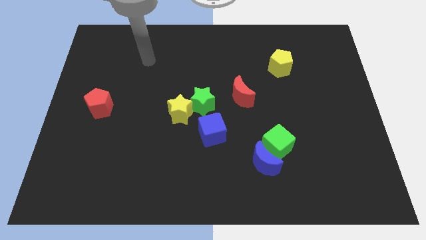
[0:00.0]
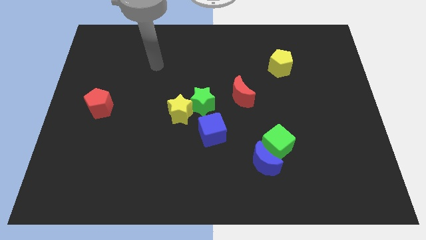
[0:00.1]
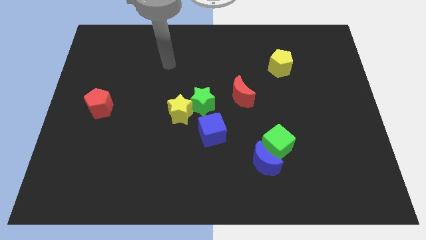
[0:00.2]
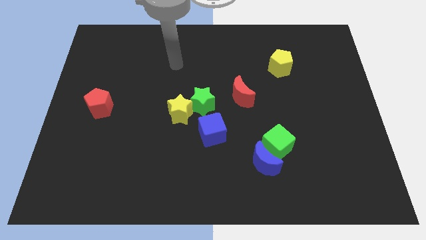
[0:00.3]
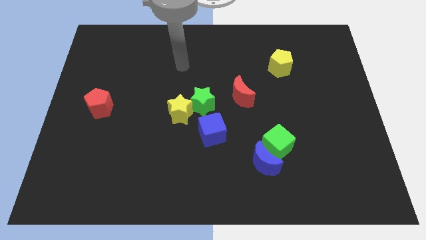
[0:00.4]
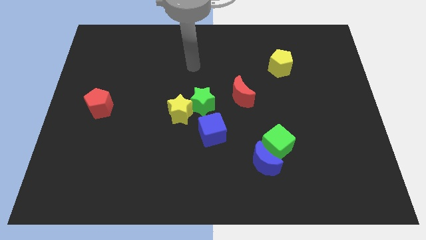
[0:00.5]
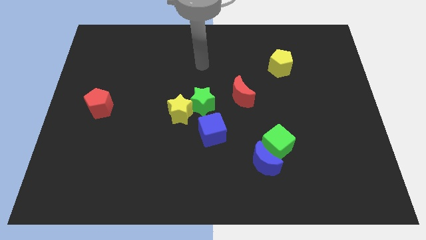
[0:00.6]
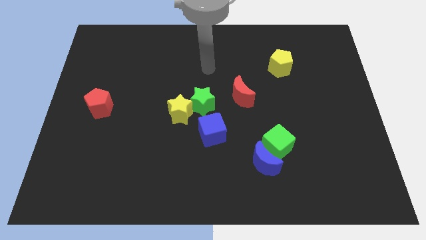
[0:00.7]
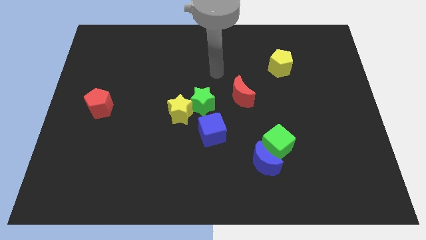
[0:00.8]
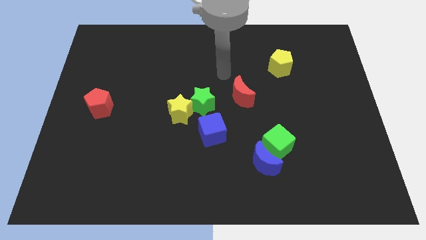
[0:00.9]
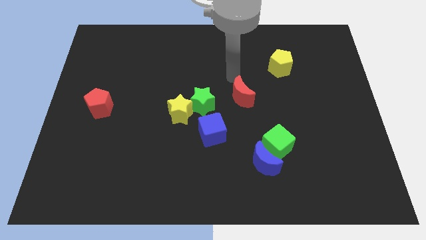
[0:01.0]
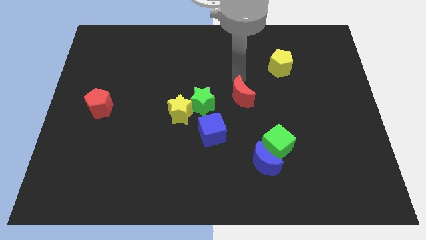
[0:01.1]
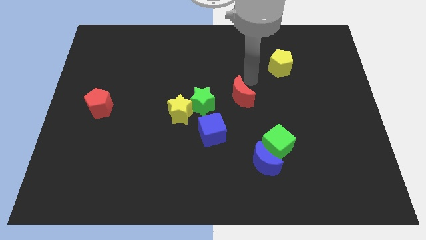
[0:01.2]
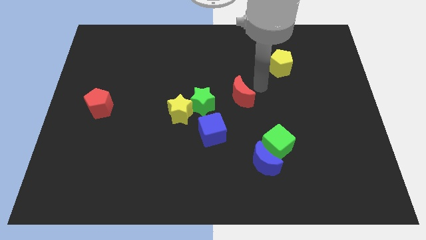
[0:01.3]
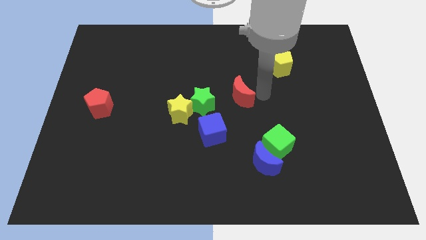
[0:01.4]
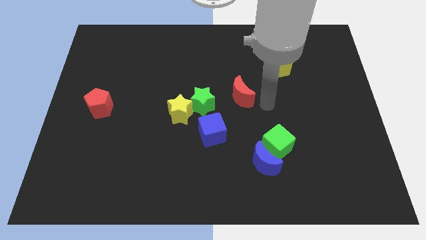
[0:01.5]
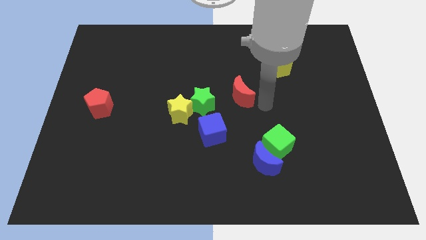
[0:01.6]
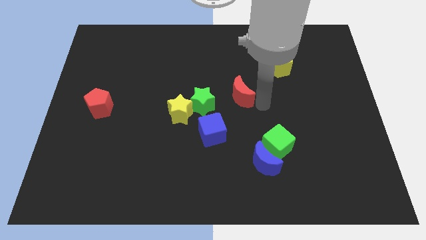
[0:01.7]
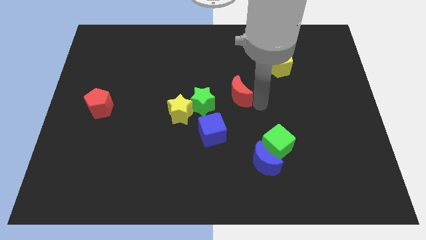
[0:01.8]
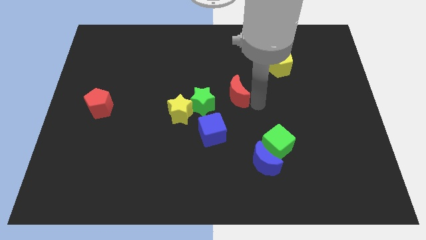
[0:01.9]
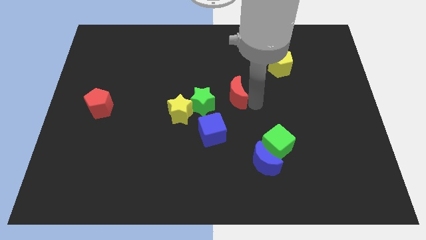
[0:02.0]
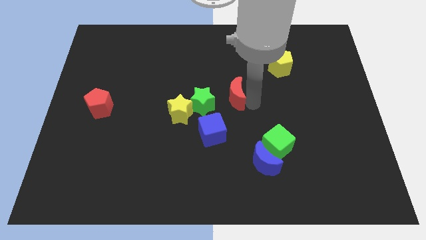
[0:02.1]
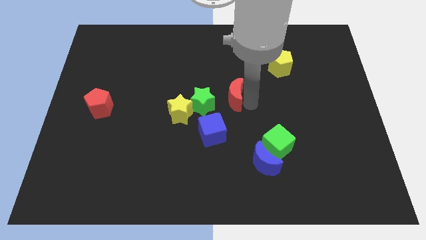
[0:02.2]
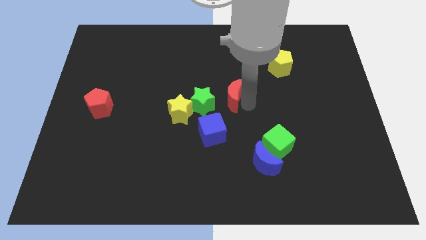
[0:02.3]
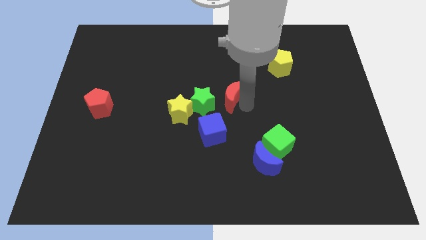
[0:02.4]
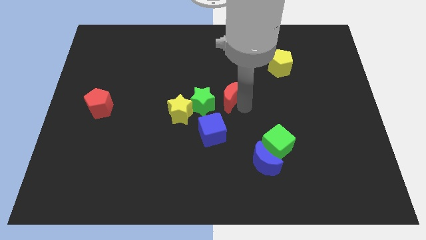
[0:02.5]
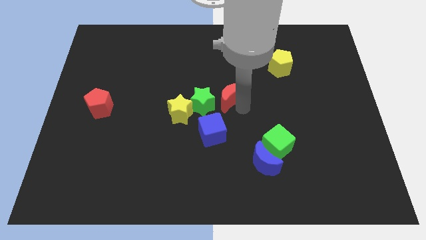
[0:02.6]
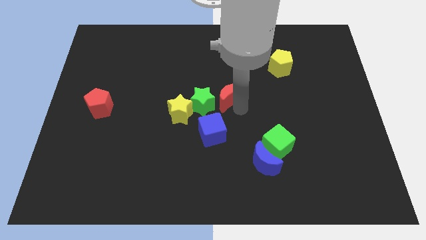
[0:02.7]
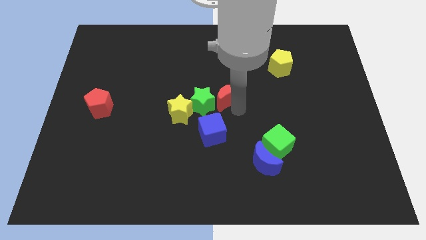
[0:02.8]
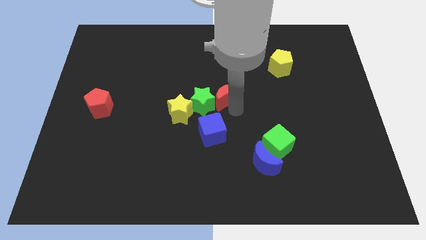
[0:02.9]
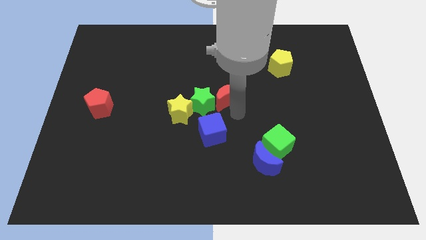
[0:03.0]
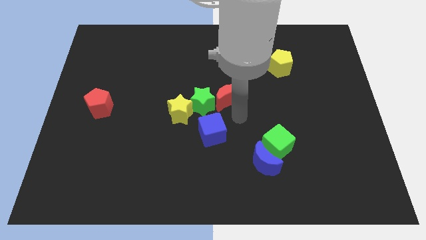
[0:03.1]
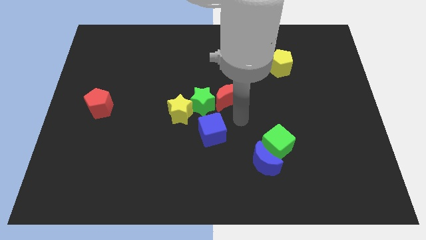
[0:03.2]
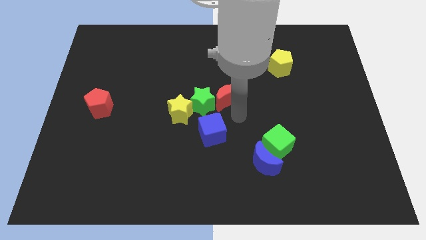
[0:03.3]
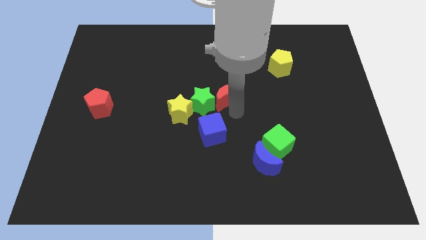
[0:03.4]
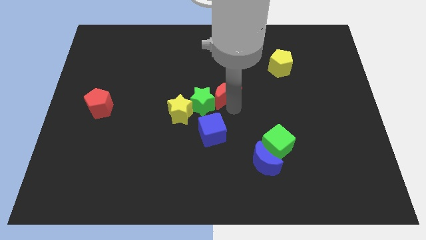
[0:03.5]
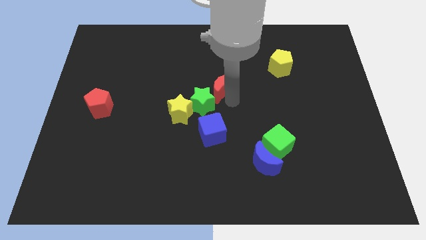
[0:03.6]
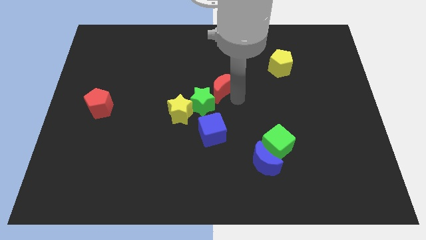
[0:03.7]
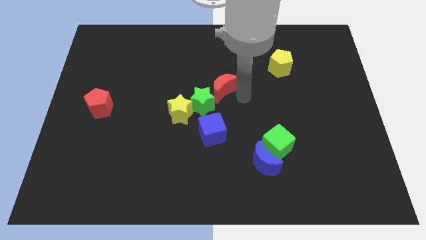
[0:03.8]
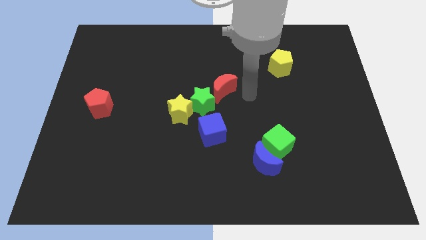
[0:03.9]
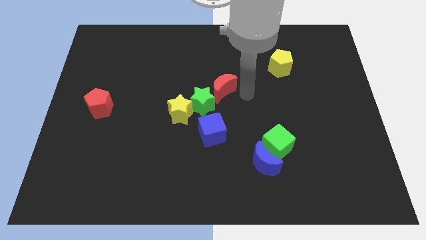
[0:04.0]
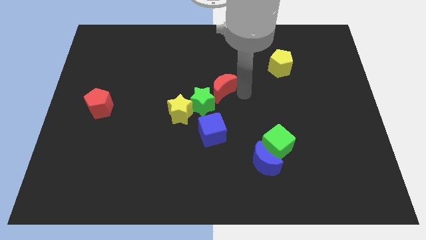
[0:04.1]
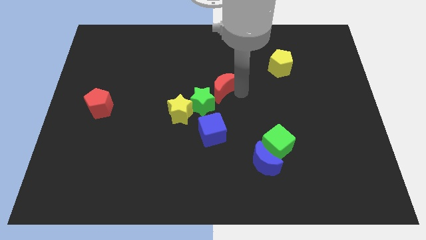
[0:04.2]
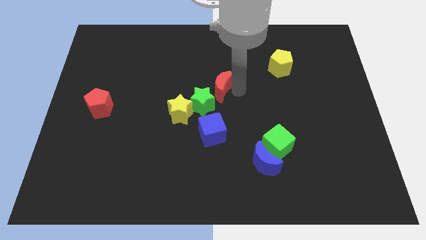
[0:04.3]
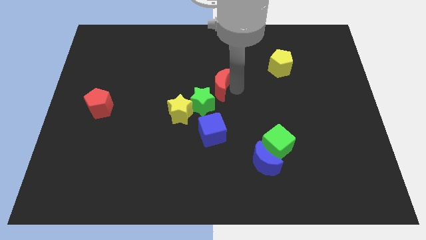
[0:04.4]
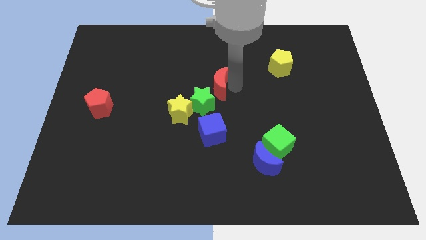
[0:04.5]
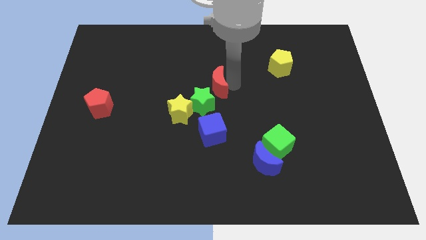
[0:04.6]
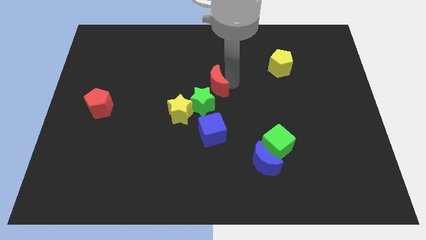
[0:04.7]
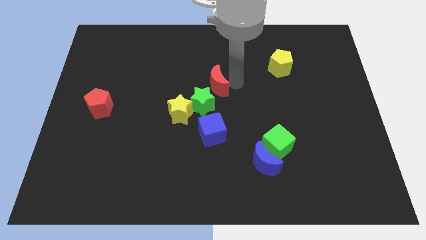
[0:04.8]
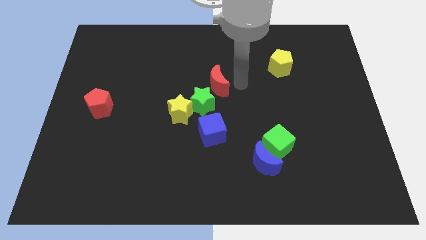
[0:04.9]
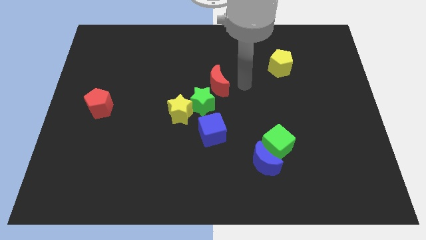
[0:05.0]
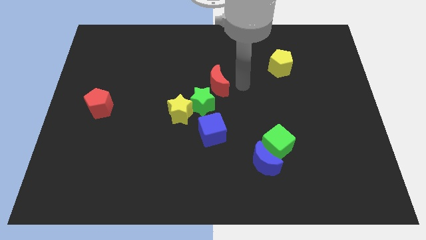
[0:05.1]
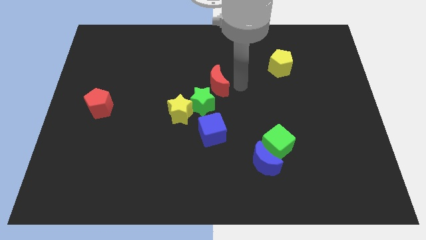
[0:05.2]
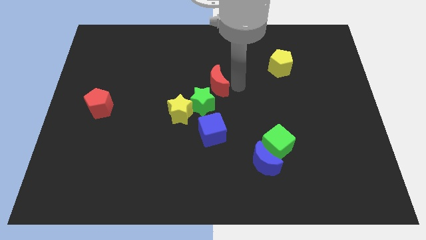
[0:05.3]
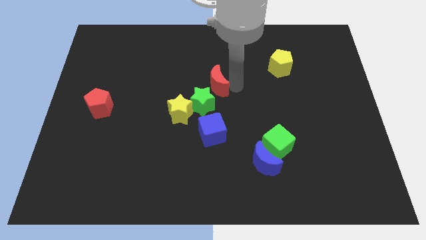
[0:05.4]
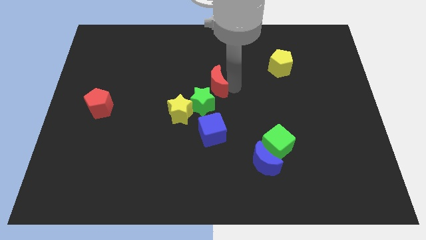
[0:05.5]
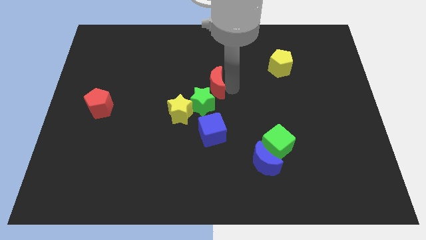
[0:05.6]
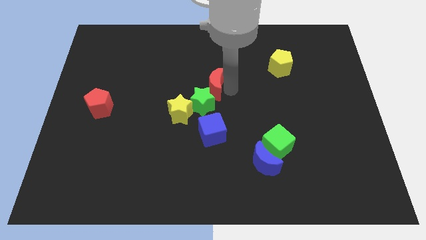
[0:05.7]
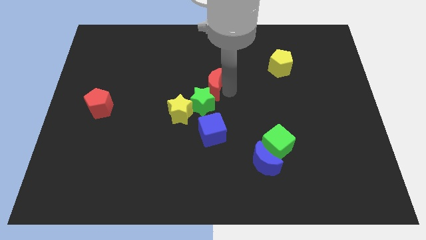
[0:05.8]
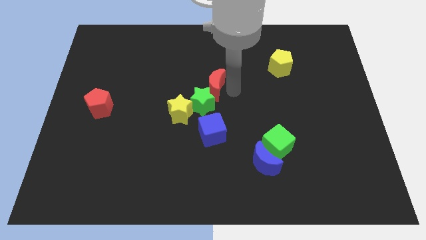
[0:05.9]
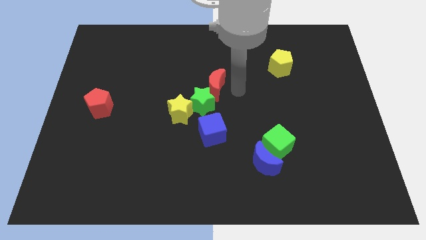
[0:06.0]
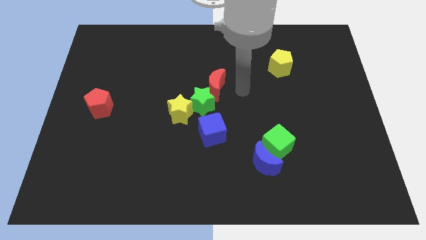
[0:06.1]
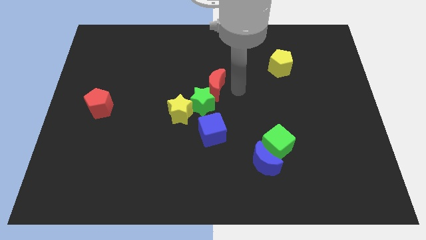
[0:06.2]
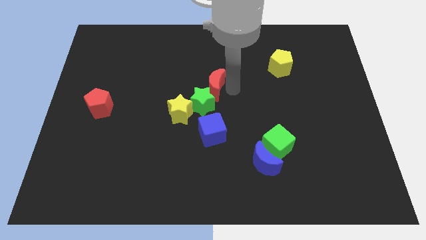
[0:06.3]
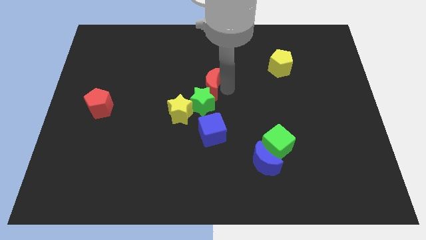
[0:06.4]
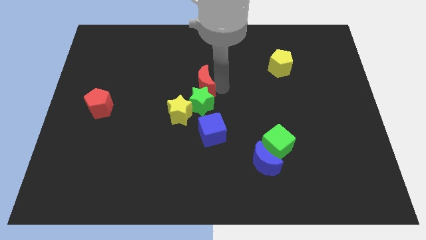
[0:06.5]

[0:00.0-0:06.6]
move the red moon to the left a little

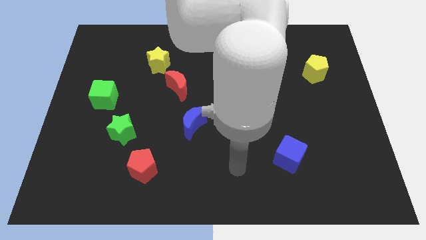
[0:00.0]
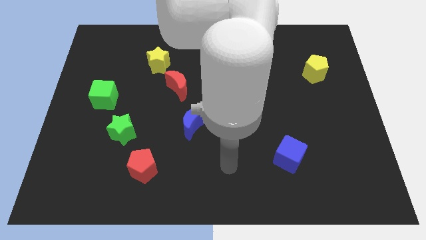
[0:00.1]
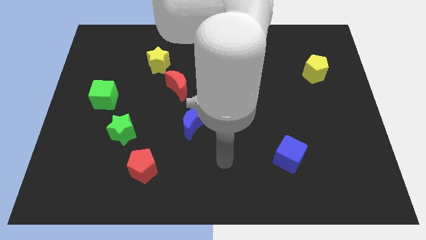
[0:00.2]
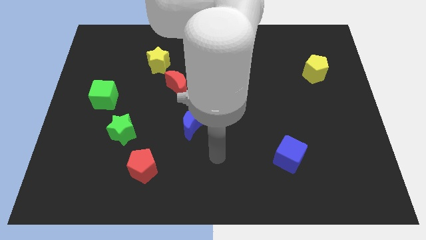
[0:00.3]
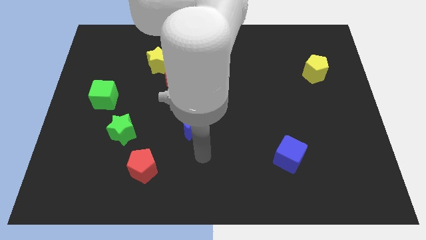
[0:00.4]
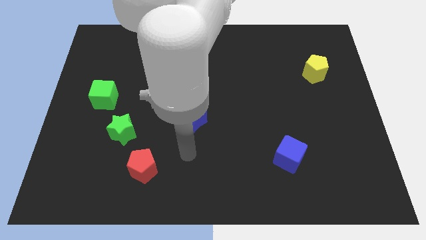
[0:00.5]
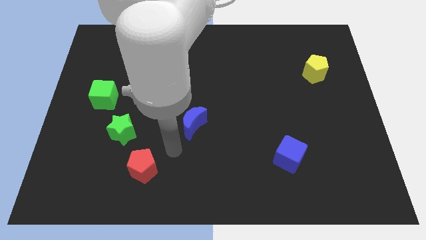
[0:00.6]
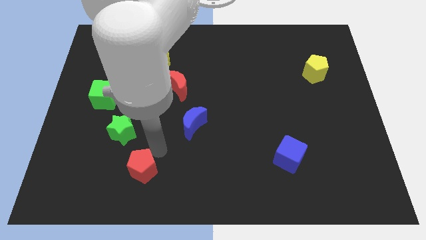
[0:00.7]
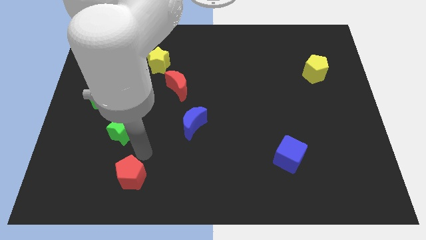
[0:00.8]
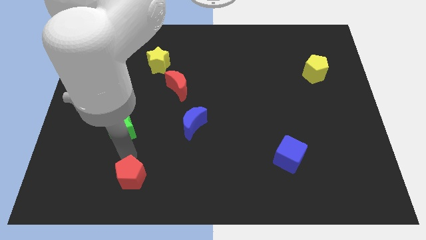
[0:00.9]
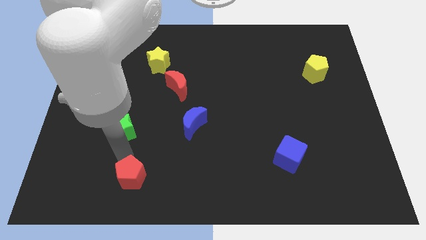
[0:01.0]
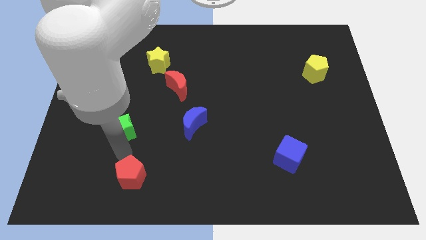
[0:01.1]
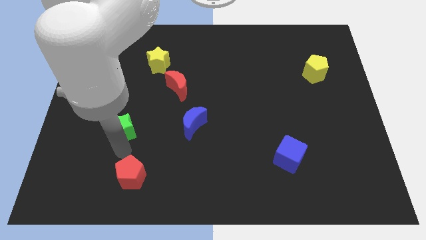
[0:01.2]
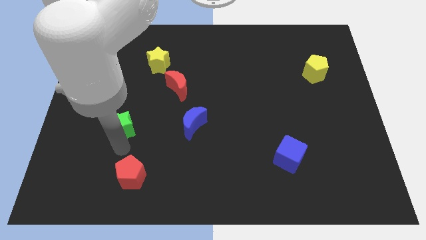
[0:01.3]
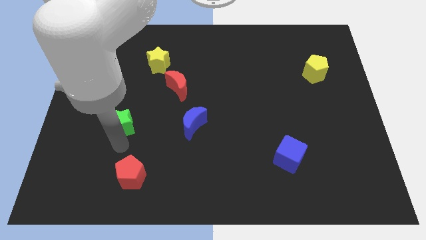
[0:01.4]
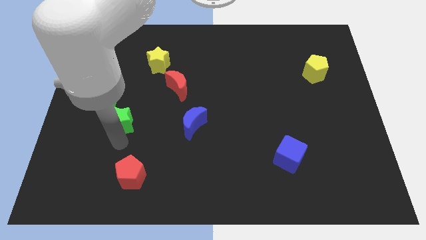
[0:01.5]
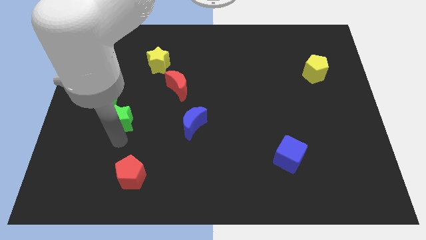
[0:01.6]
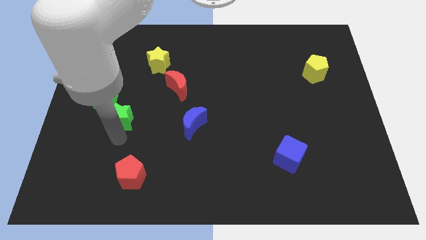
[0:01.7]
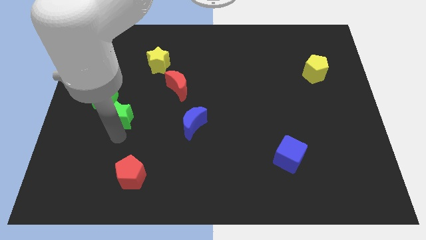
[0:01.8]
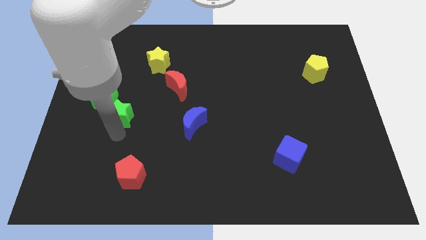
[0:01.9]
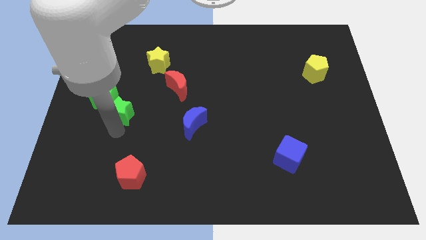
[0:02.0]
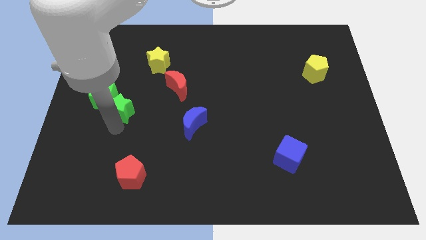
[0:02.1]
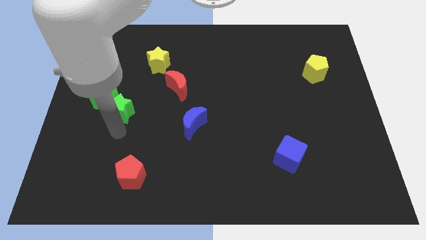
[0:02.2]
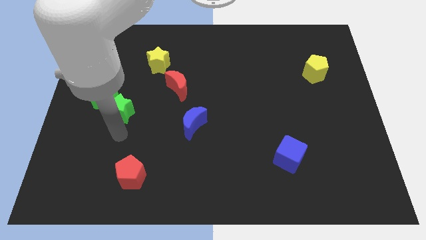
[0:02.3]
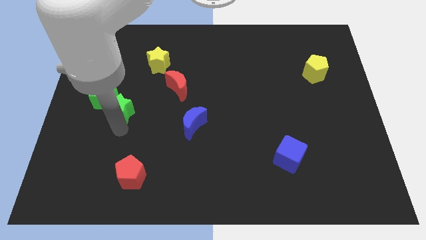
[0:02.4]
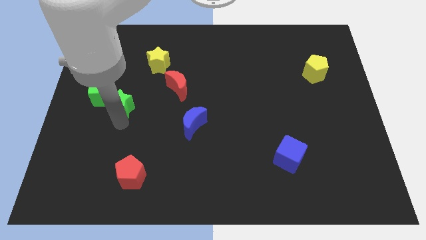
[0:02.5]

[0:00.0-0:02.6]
move the green star up a bit
